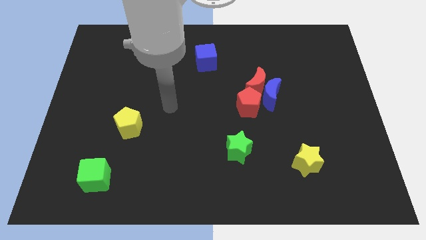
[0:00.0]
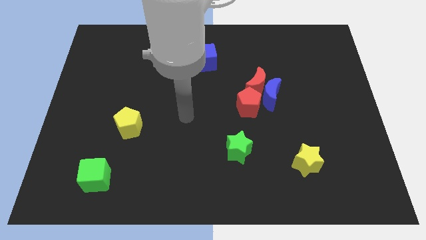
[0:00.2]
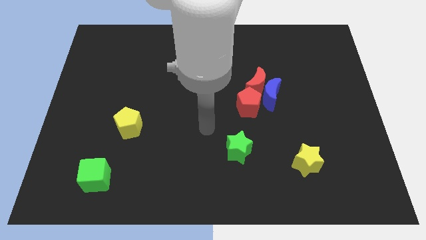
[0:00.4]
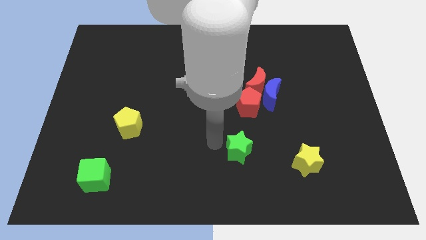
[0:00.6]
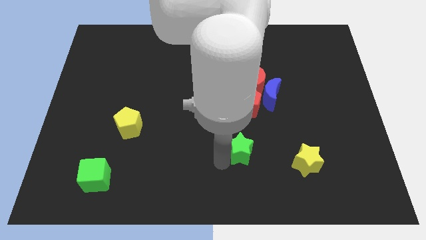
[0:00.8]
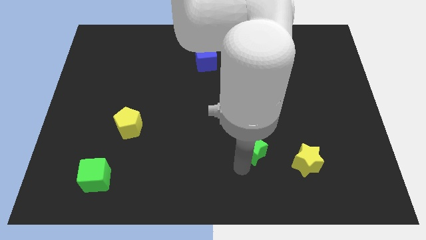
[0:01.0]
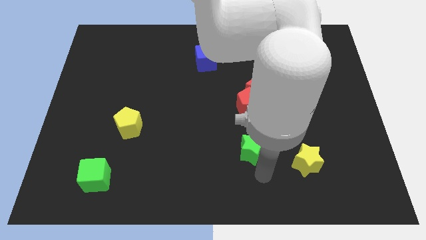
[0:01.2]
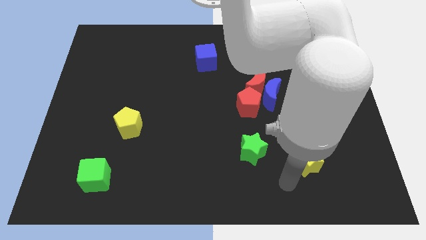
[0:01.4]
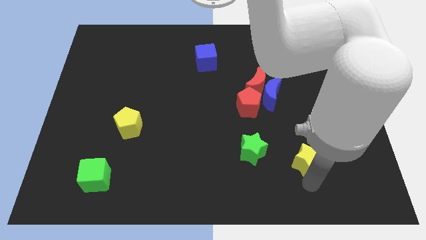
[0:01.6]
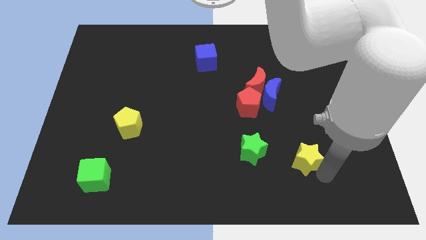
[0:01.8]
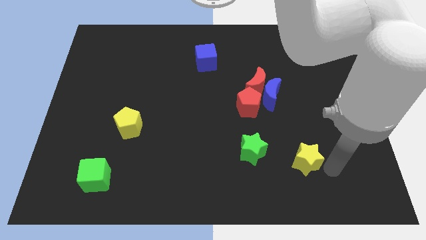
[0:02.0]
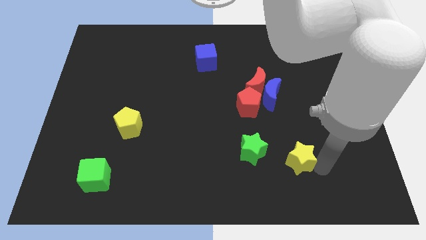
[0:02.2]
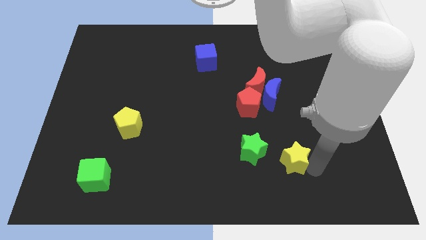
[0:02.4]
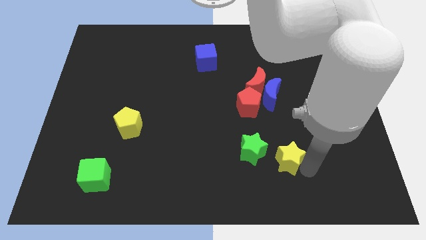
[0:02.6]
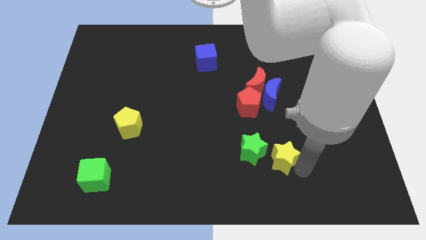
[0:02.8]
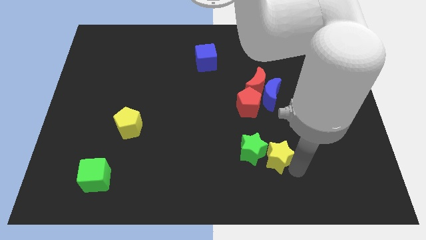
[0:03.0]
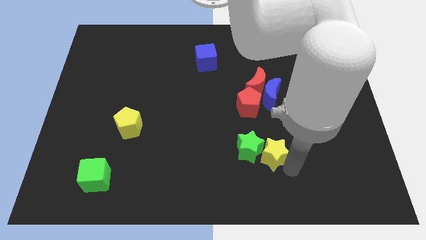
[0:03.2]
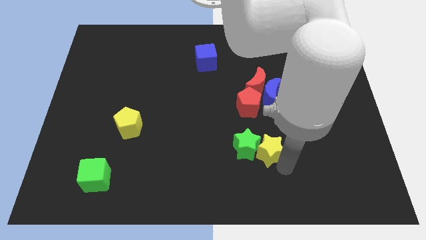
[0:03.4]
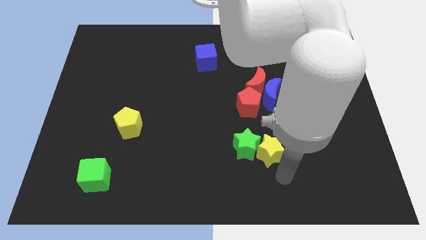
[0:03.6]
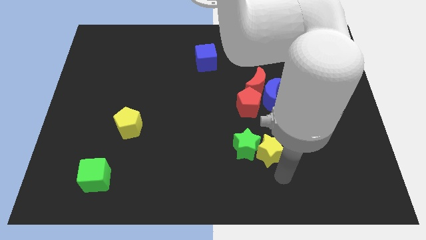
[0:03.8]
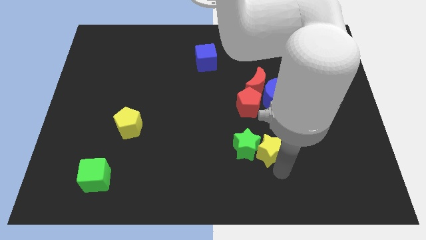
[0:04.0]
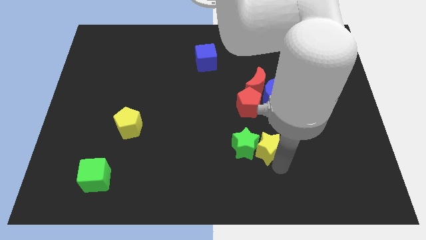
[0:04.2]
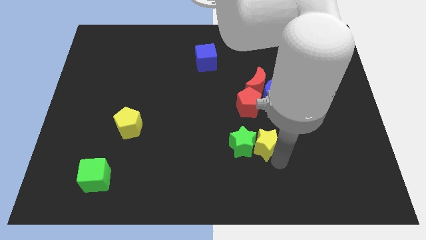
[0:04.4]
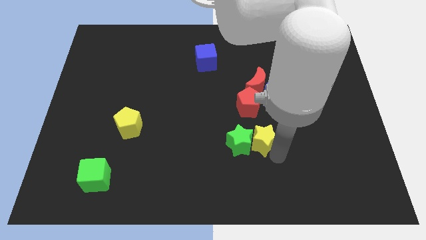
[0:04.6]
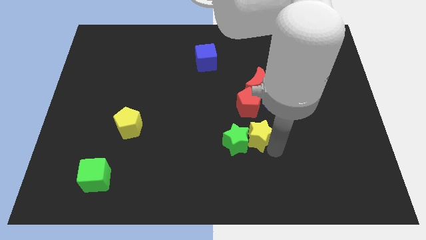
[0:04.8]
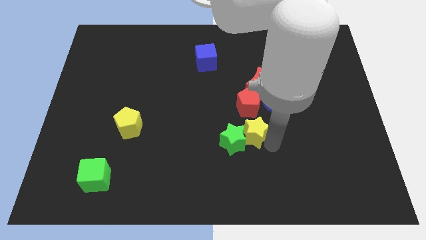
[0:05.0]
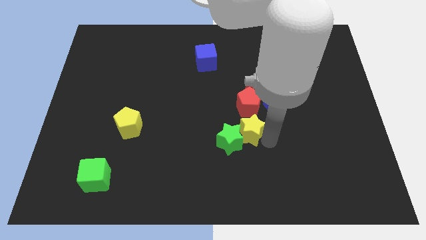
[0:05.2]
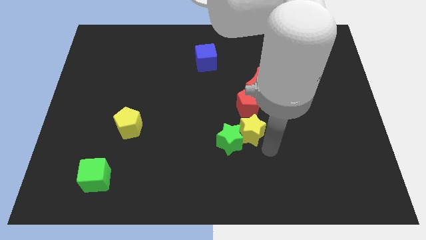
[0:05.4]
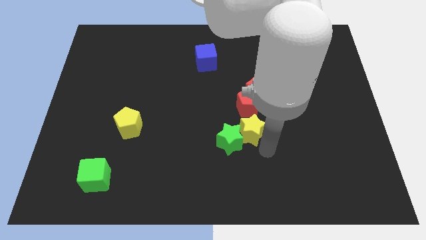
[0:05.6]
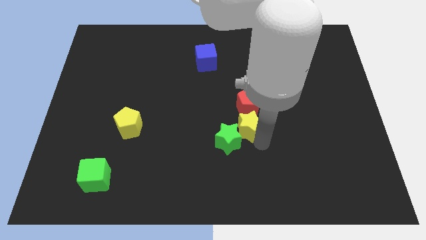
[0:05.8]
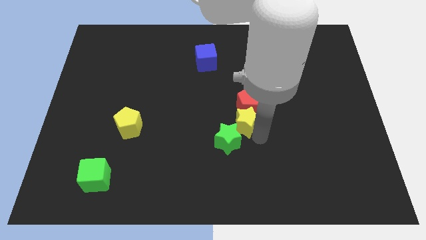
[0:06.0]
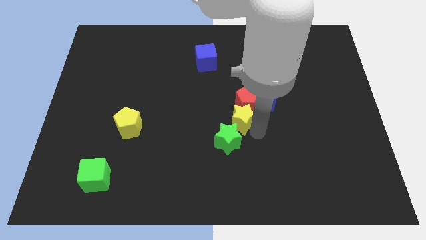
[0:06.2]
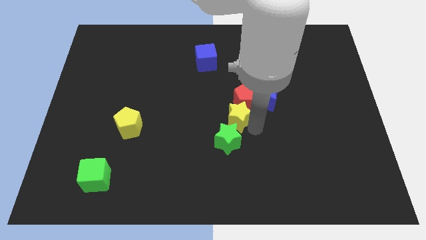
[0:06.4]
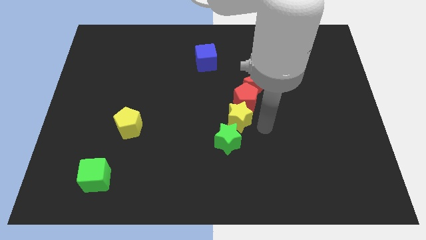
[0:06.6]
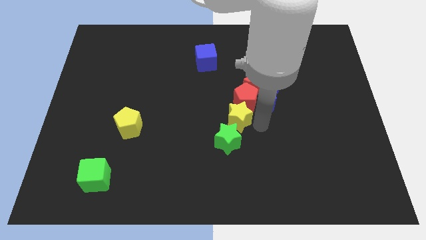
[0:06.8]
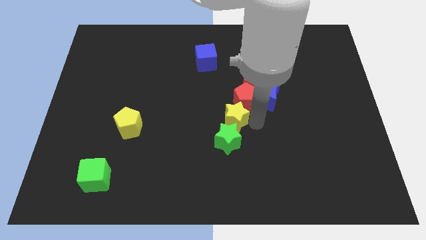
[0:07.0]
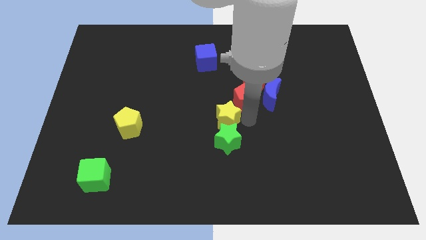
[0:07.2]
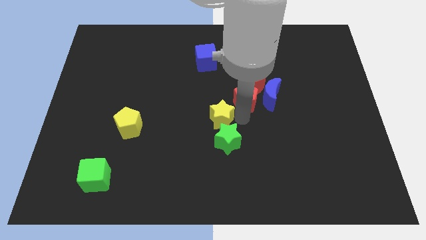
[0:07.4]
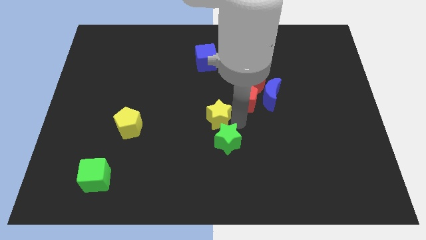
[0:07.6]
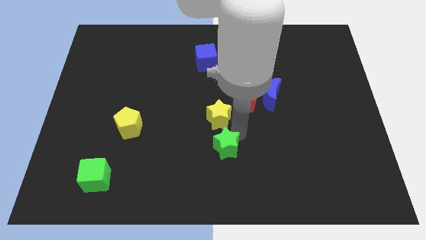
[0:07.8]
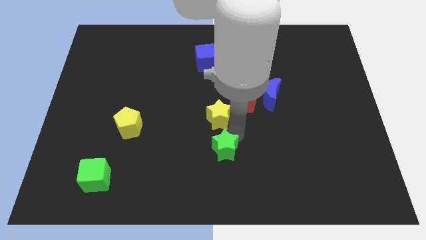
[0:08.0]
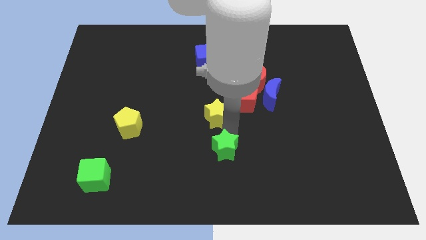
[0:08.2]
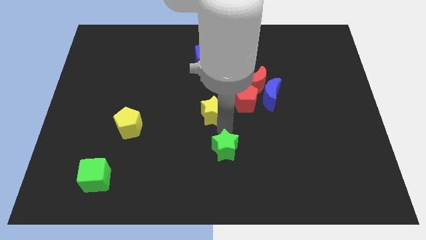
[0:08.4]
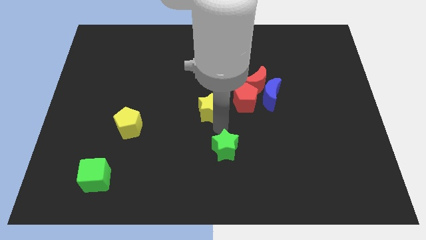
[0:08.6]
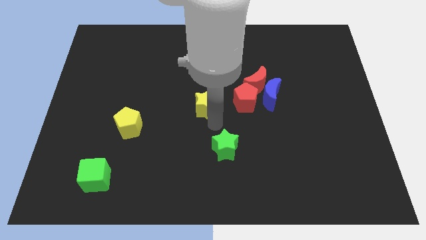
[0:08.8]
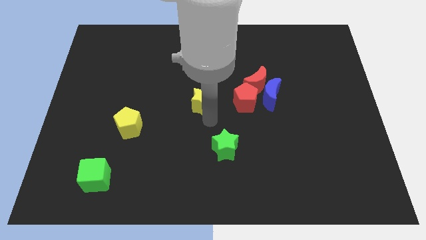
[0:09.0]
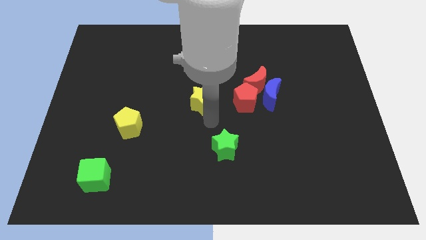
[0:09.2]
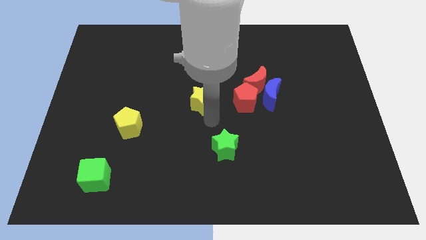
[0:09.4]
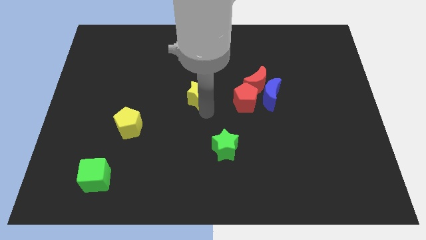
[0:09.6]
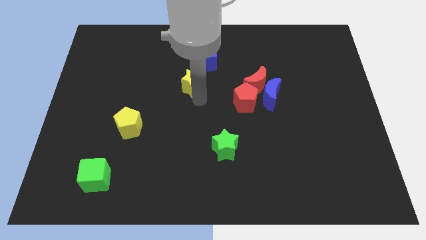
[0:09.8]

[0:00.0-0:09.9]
move the yellow star diagonally down and to the left of the blue cube

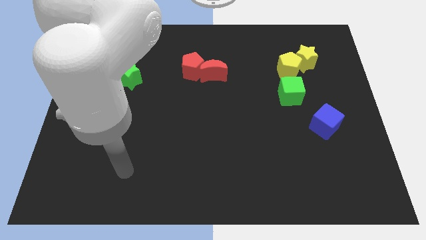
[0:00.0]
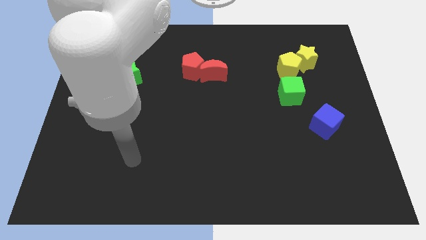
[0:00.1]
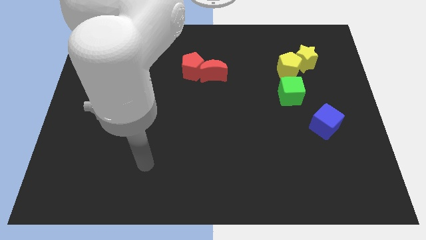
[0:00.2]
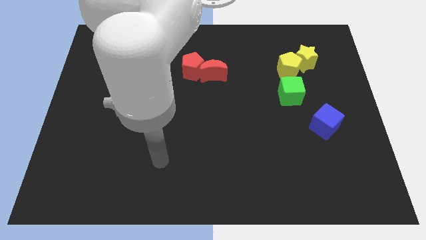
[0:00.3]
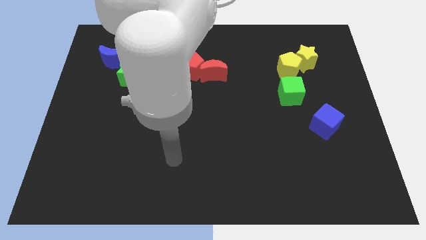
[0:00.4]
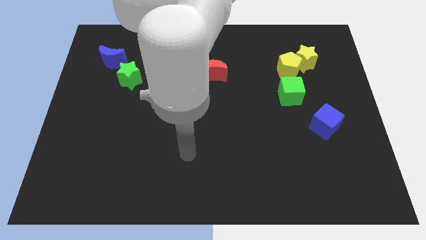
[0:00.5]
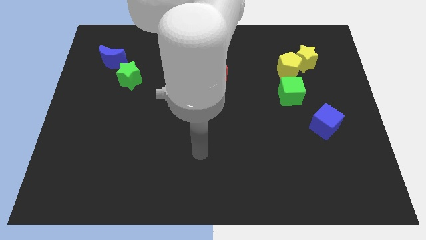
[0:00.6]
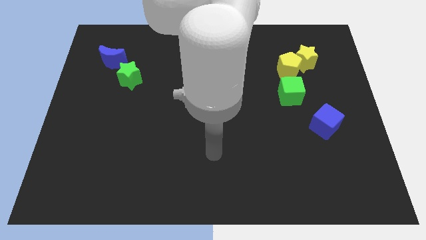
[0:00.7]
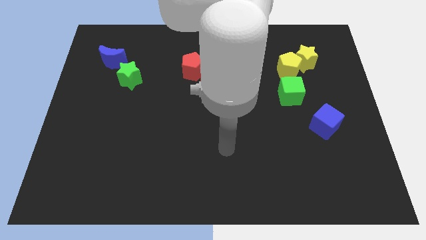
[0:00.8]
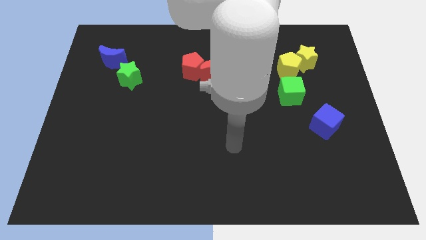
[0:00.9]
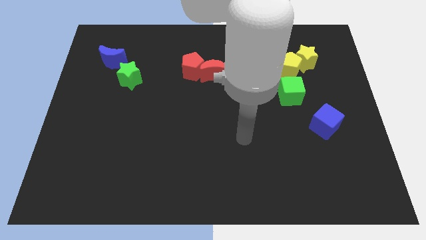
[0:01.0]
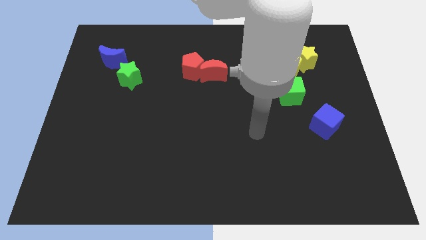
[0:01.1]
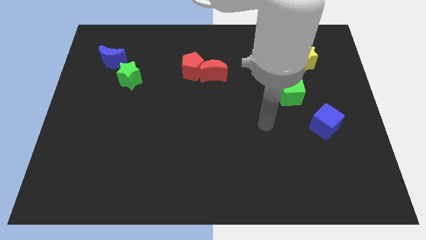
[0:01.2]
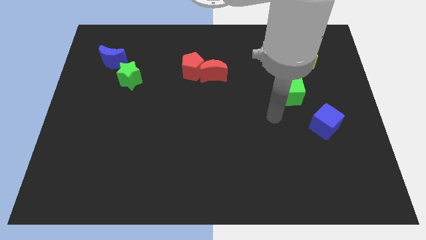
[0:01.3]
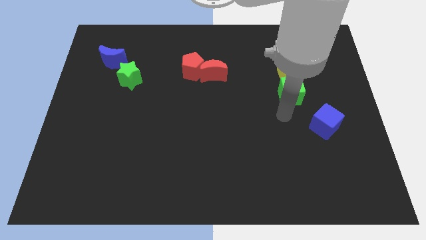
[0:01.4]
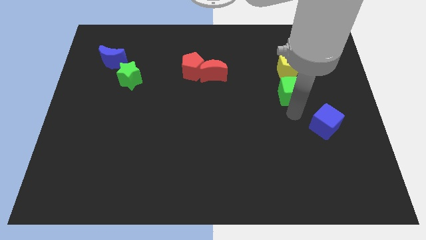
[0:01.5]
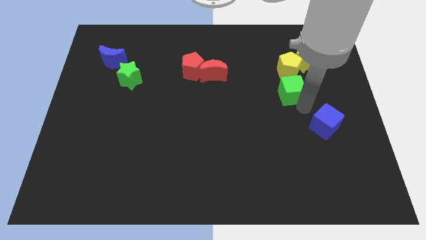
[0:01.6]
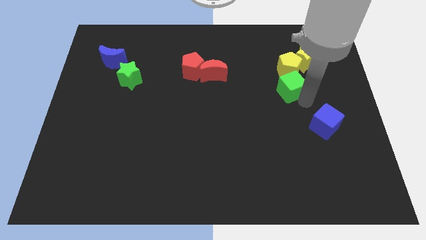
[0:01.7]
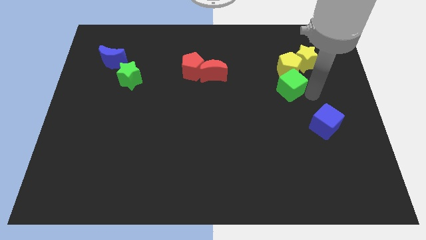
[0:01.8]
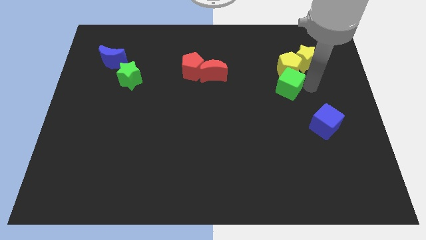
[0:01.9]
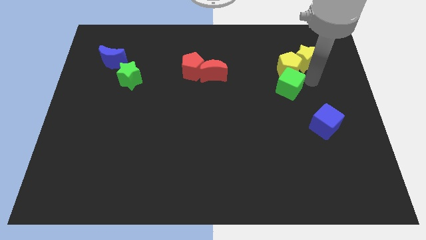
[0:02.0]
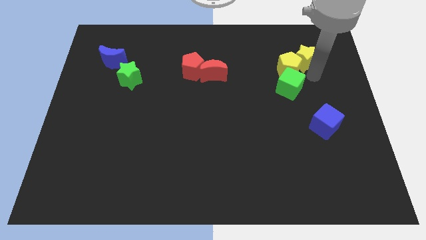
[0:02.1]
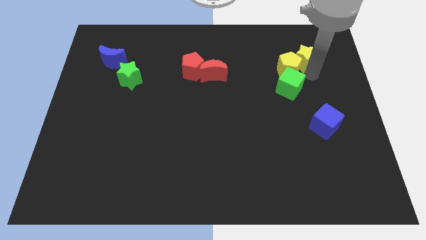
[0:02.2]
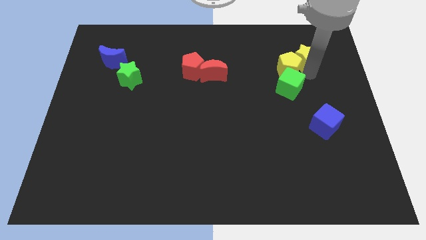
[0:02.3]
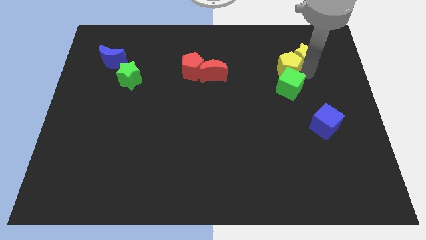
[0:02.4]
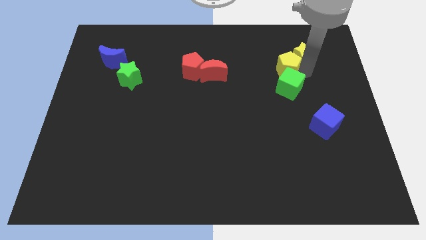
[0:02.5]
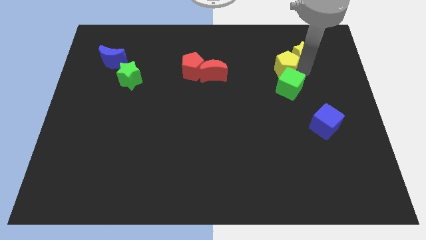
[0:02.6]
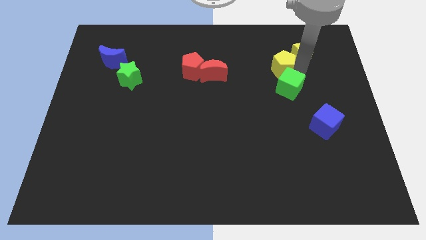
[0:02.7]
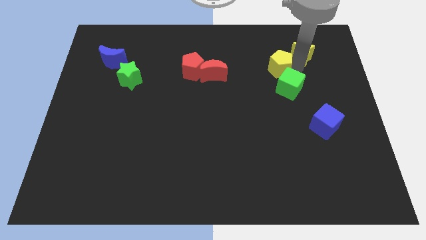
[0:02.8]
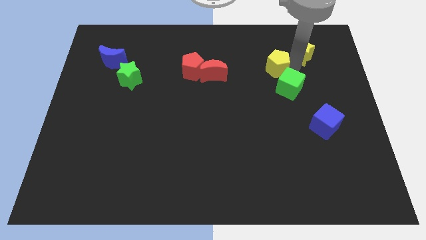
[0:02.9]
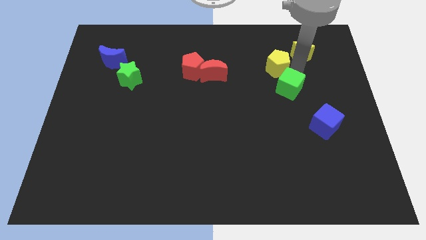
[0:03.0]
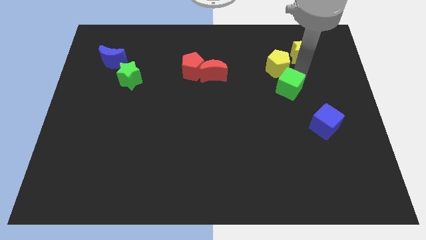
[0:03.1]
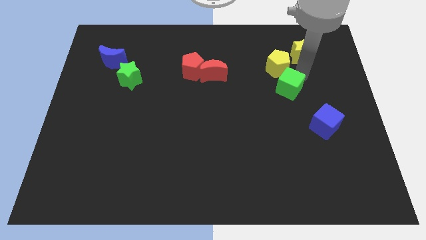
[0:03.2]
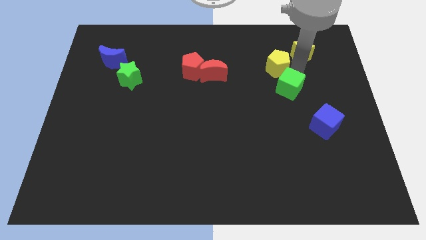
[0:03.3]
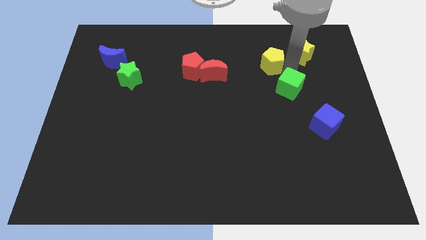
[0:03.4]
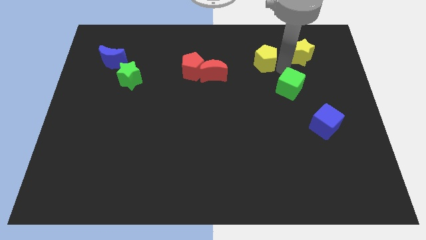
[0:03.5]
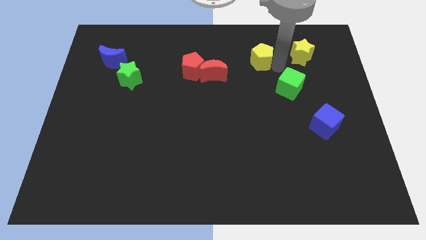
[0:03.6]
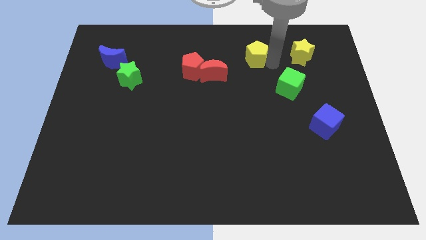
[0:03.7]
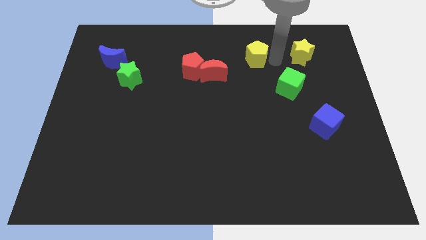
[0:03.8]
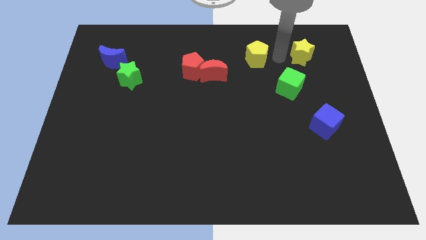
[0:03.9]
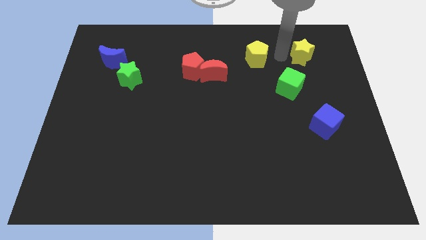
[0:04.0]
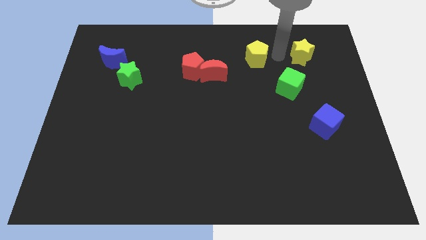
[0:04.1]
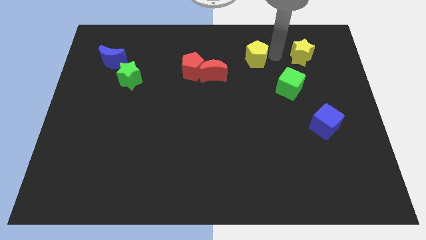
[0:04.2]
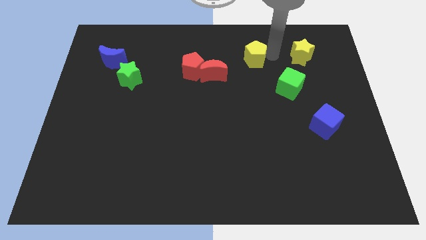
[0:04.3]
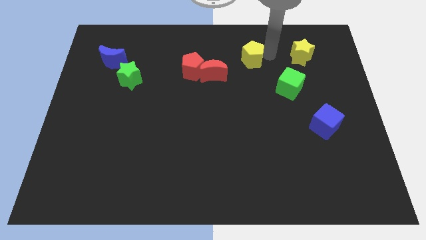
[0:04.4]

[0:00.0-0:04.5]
slide the yellow pentagon to the top right side of the red moon
